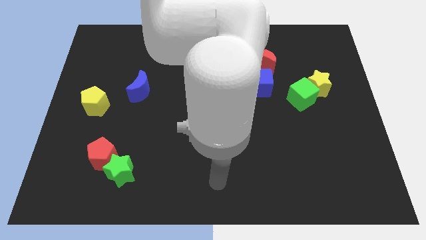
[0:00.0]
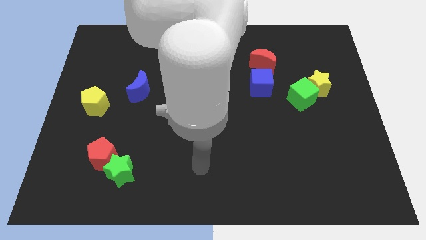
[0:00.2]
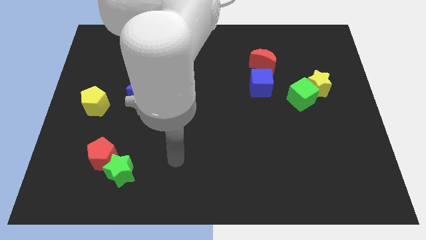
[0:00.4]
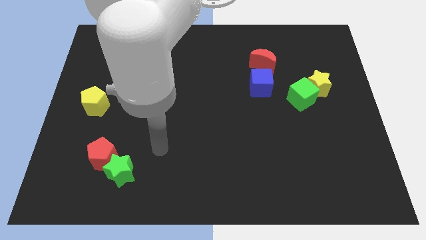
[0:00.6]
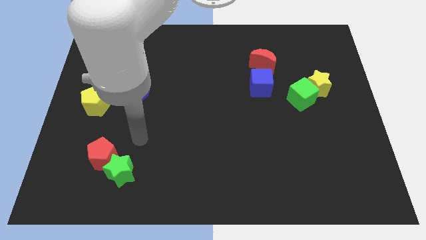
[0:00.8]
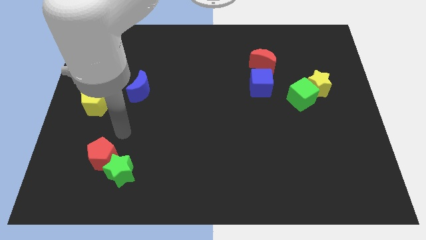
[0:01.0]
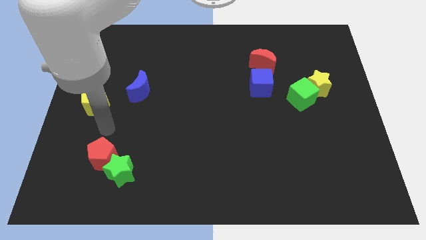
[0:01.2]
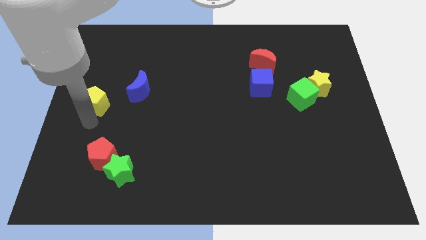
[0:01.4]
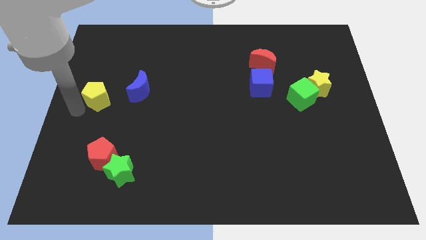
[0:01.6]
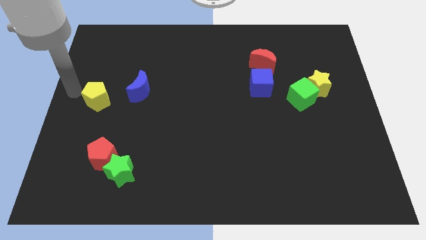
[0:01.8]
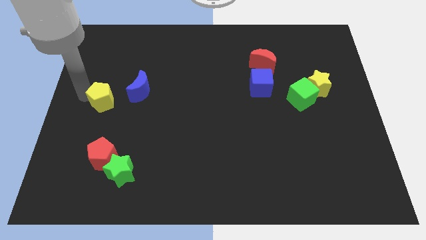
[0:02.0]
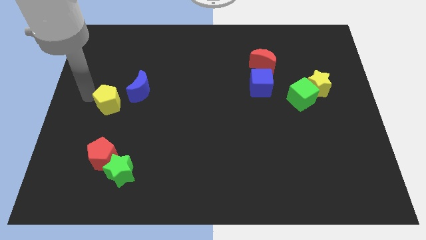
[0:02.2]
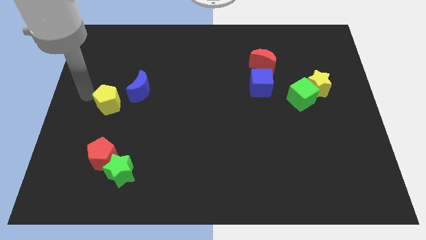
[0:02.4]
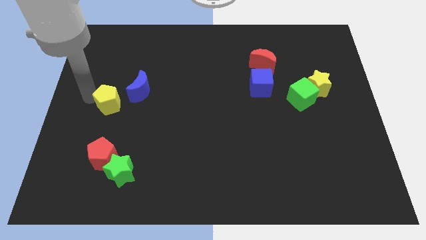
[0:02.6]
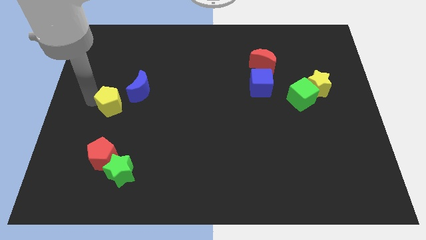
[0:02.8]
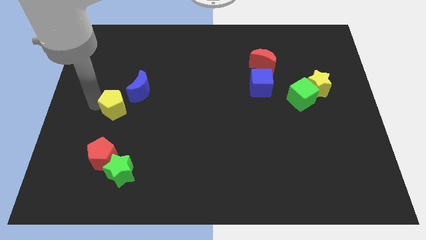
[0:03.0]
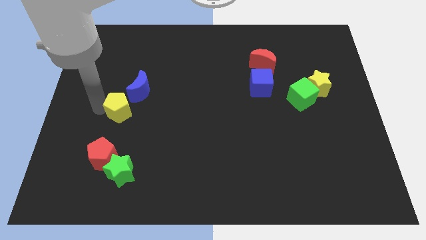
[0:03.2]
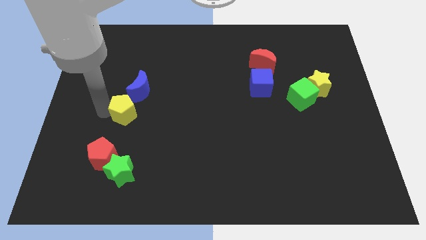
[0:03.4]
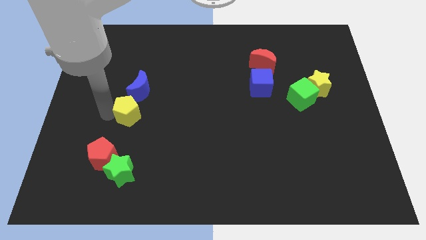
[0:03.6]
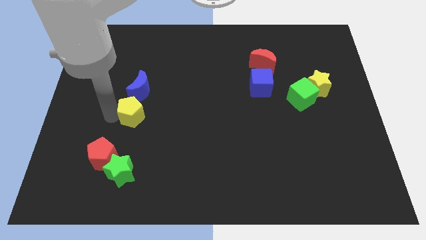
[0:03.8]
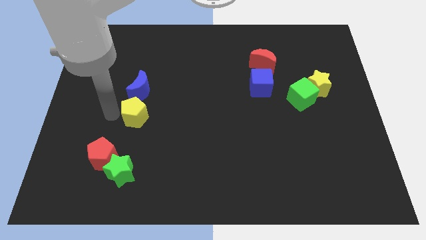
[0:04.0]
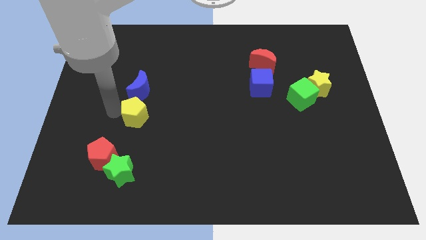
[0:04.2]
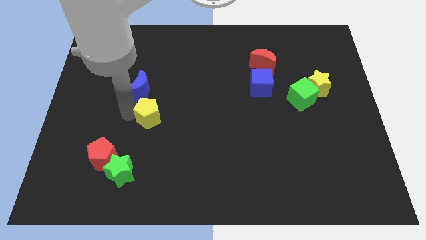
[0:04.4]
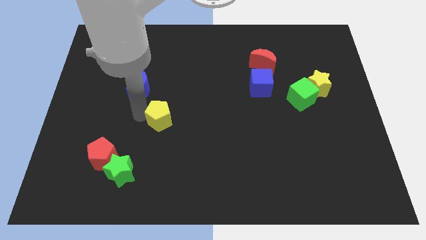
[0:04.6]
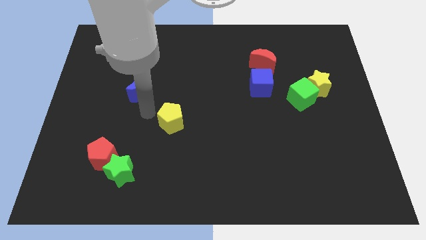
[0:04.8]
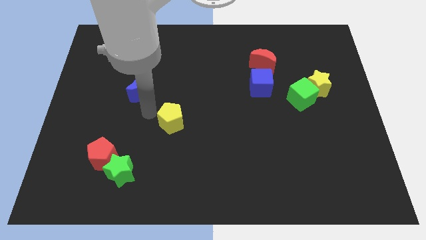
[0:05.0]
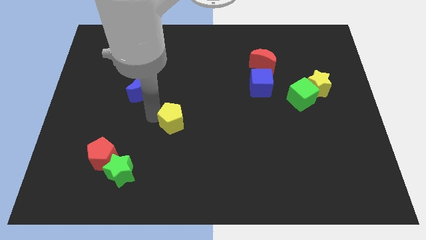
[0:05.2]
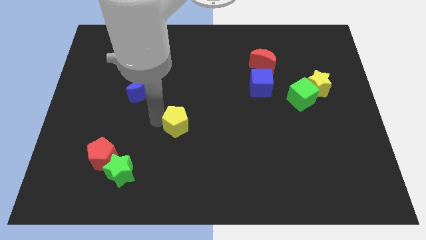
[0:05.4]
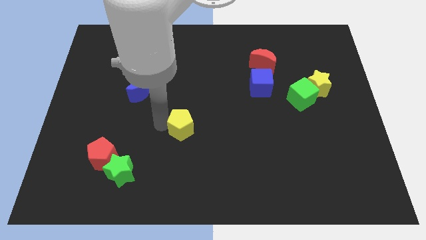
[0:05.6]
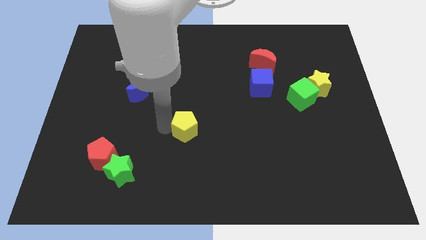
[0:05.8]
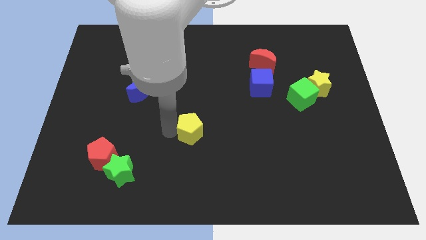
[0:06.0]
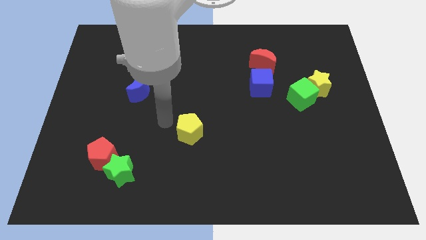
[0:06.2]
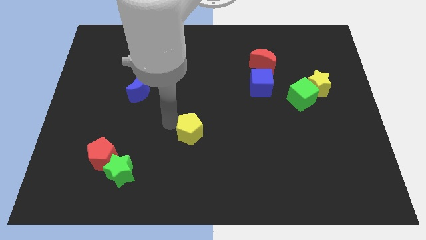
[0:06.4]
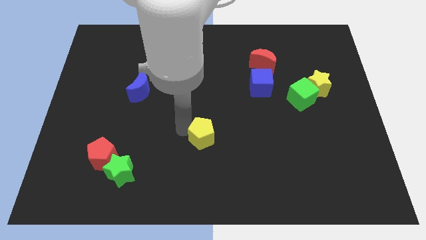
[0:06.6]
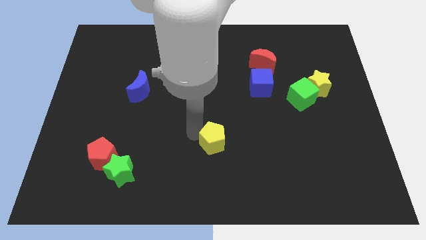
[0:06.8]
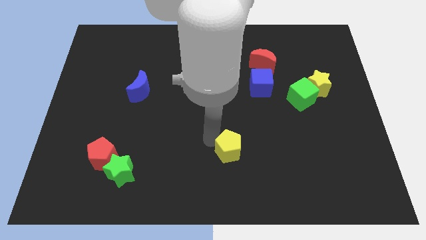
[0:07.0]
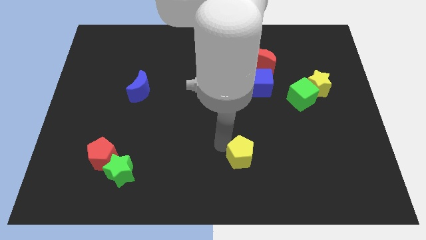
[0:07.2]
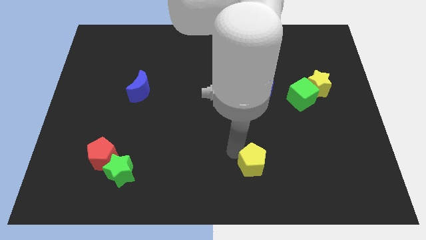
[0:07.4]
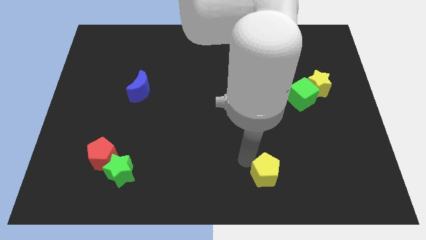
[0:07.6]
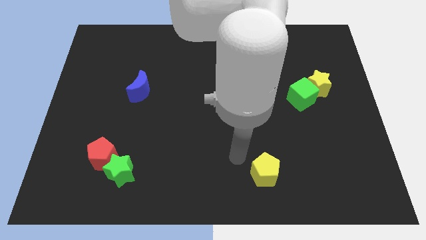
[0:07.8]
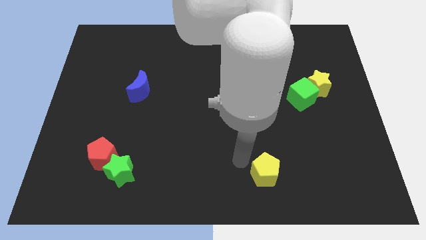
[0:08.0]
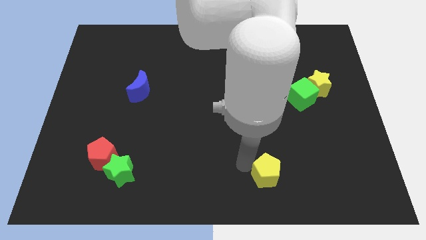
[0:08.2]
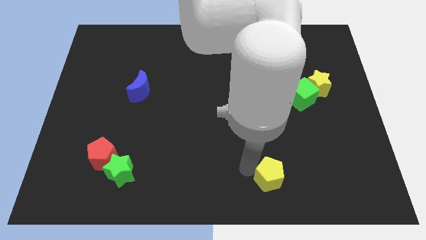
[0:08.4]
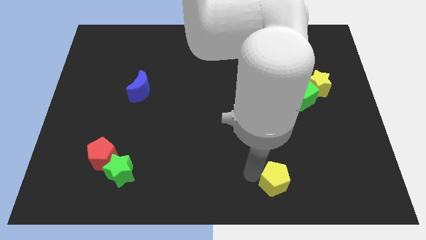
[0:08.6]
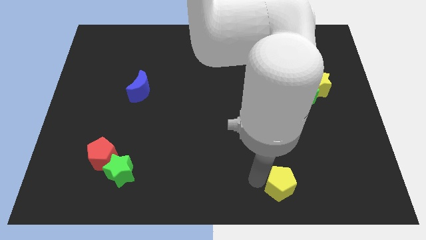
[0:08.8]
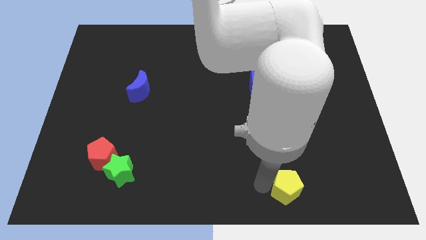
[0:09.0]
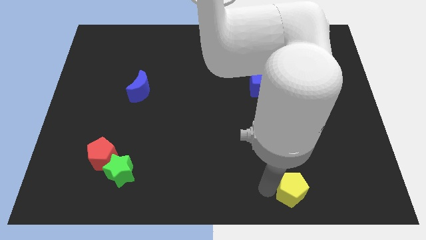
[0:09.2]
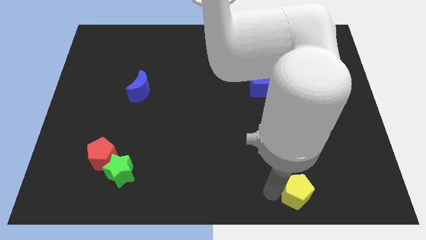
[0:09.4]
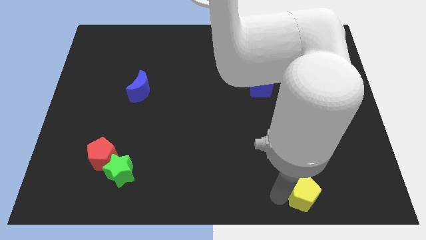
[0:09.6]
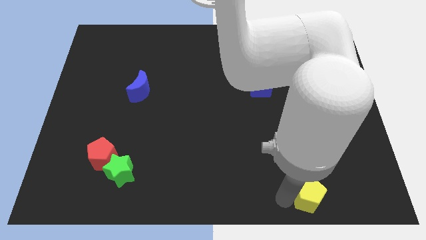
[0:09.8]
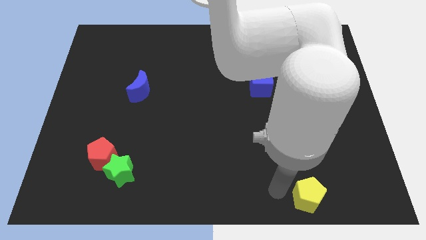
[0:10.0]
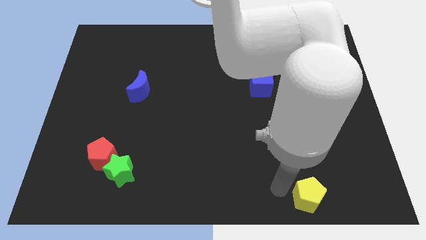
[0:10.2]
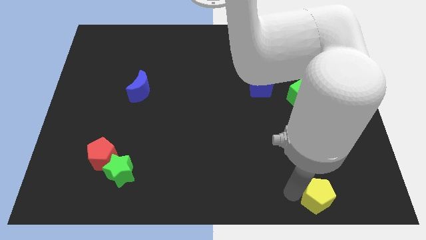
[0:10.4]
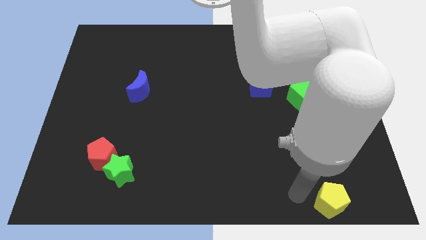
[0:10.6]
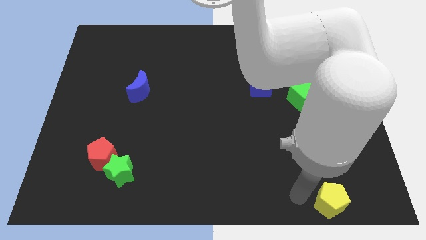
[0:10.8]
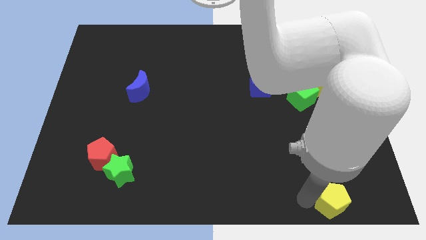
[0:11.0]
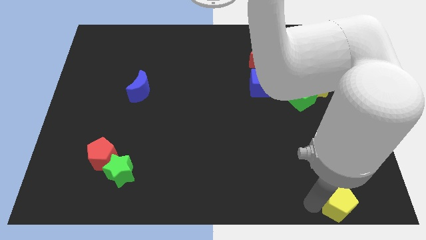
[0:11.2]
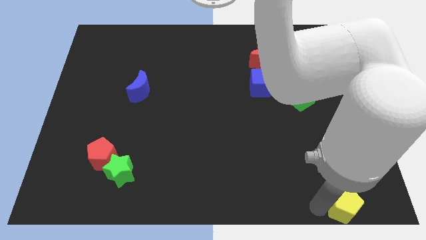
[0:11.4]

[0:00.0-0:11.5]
move the yellow pentagon to the lower right corner
